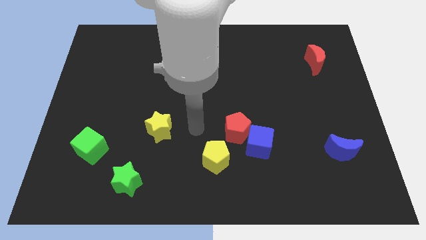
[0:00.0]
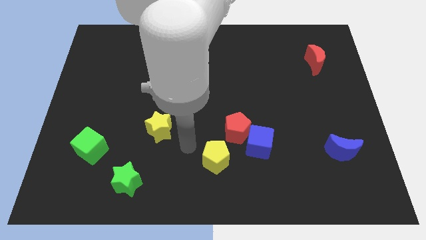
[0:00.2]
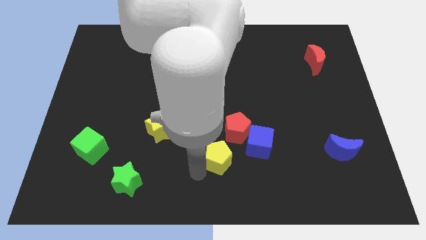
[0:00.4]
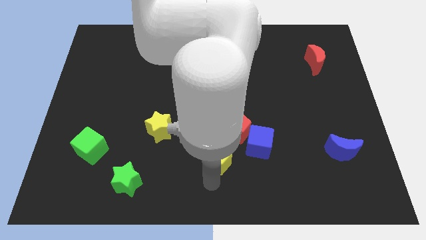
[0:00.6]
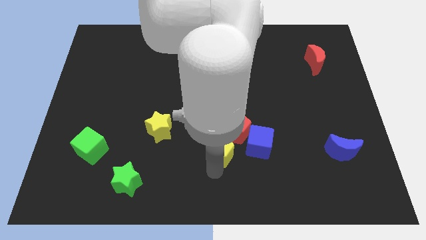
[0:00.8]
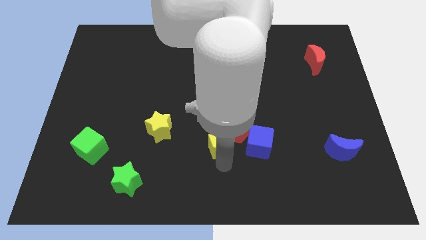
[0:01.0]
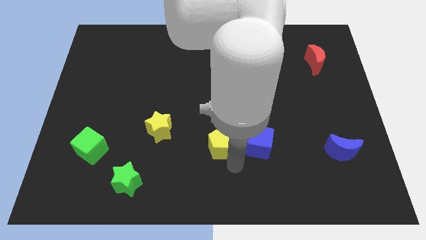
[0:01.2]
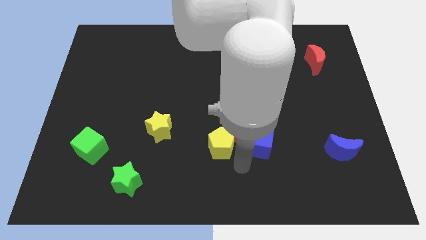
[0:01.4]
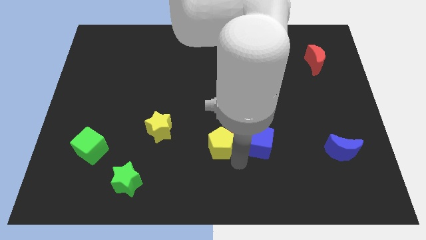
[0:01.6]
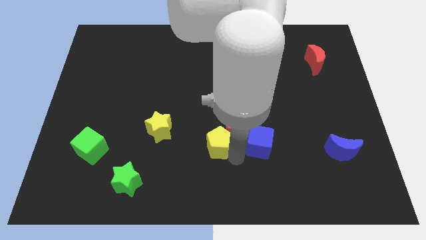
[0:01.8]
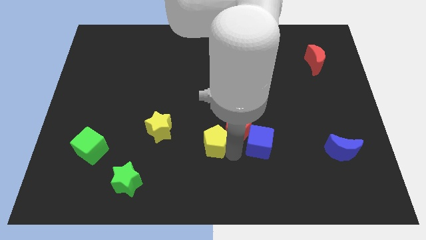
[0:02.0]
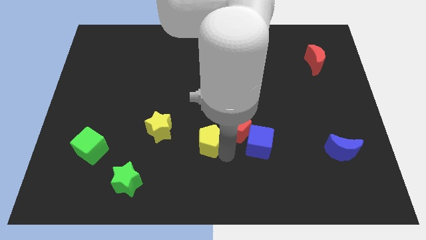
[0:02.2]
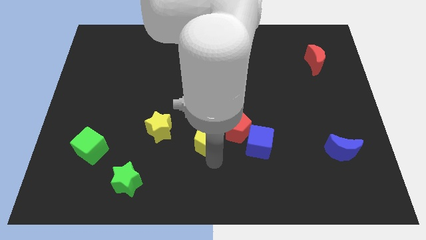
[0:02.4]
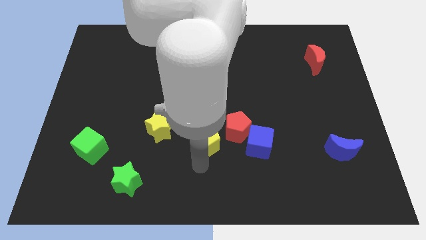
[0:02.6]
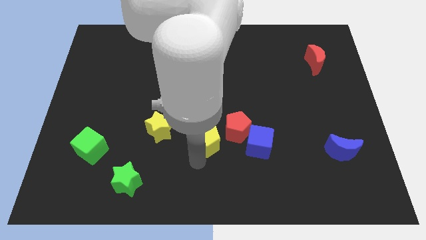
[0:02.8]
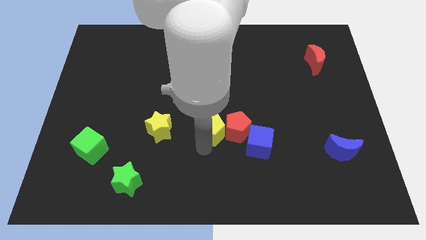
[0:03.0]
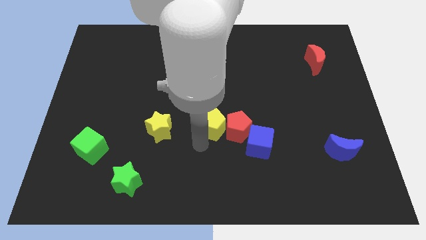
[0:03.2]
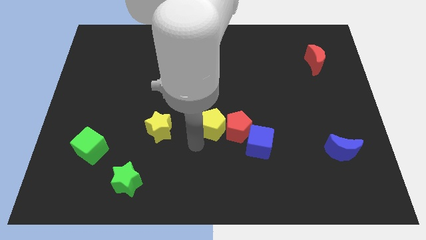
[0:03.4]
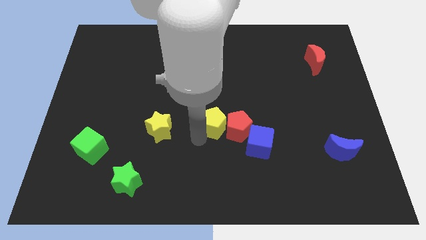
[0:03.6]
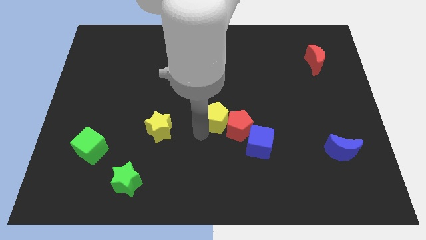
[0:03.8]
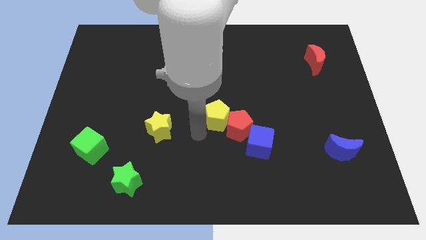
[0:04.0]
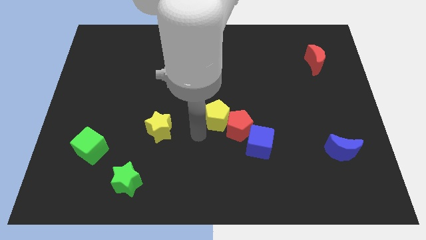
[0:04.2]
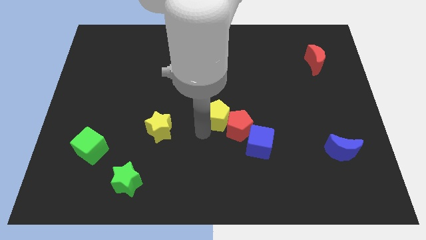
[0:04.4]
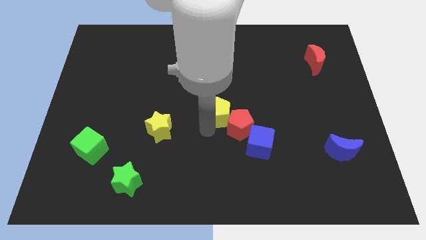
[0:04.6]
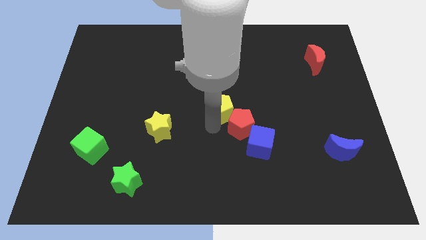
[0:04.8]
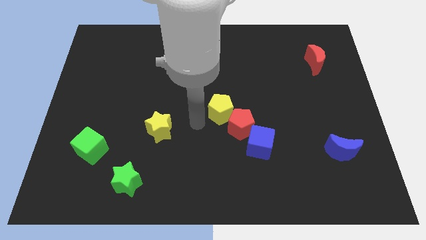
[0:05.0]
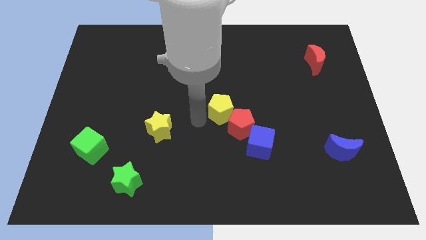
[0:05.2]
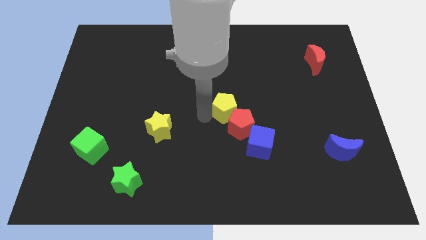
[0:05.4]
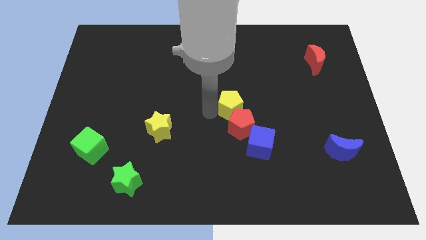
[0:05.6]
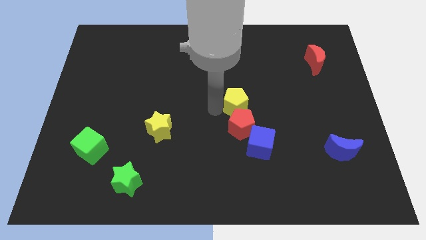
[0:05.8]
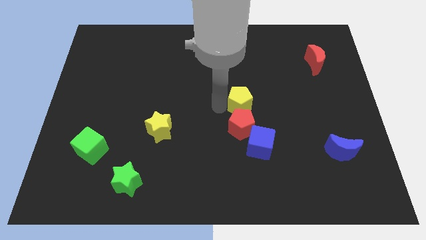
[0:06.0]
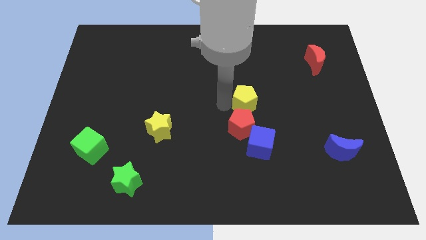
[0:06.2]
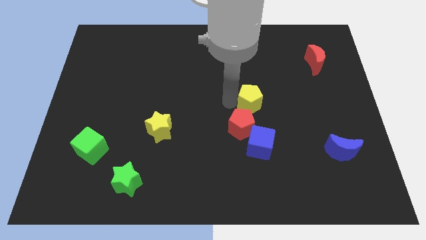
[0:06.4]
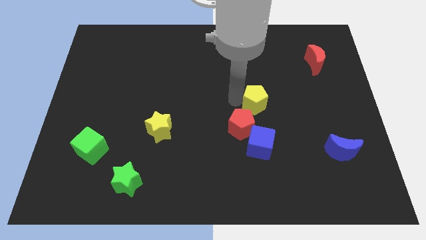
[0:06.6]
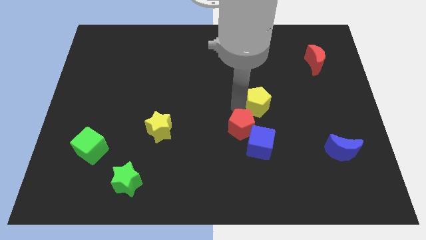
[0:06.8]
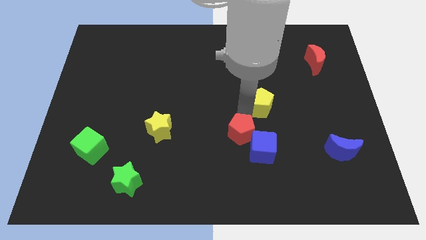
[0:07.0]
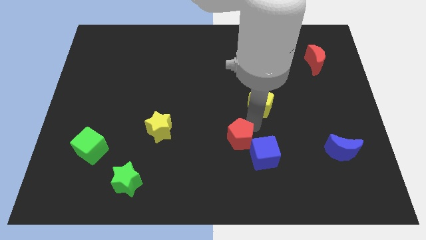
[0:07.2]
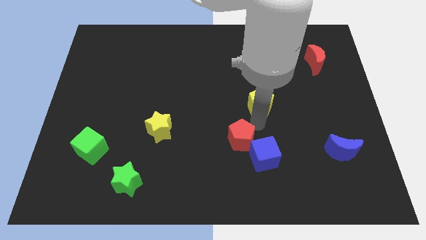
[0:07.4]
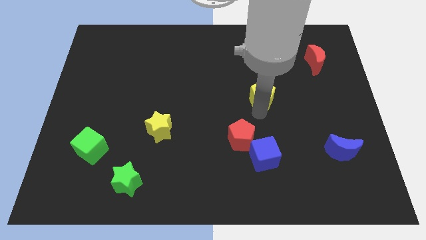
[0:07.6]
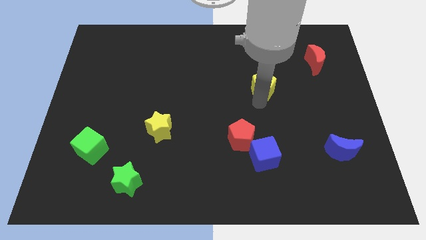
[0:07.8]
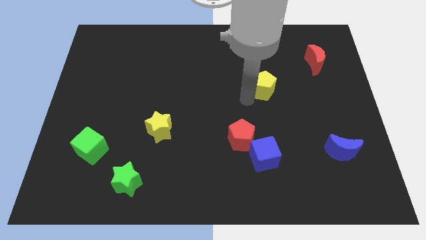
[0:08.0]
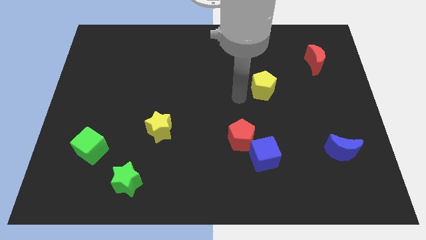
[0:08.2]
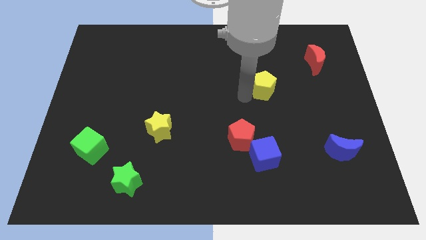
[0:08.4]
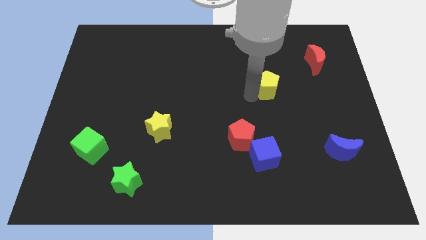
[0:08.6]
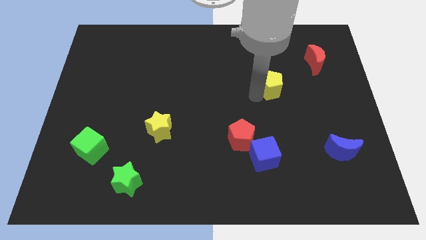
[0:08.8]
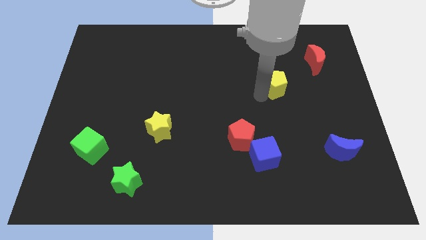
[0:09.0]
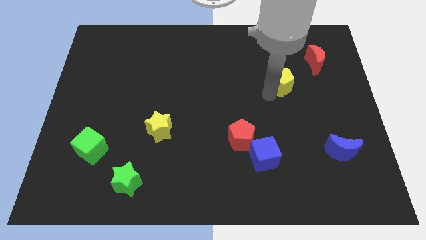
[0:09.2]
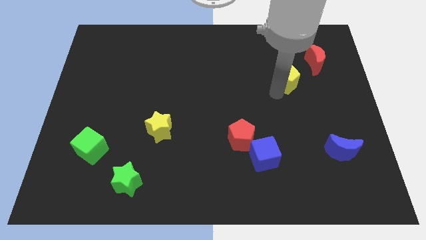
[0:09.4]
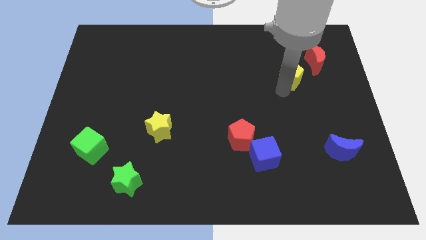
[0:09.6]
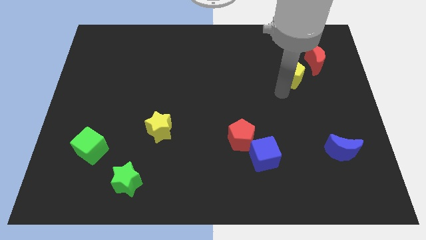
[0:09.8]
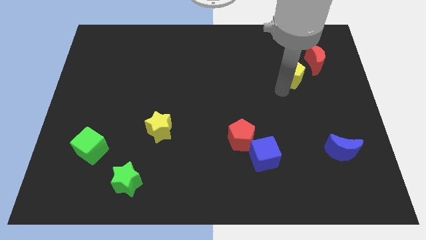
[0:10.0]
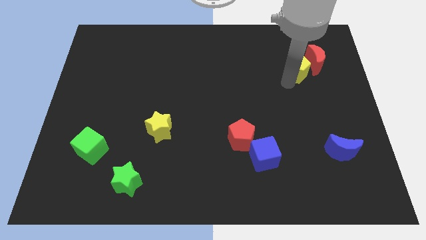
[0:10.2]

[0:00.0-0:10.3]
slide the yellow pentagon towards the red moon

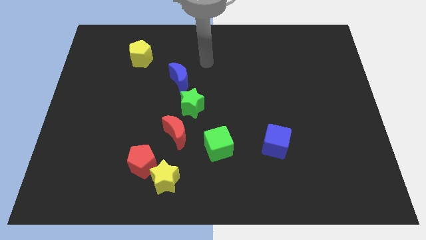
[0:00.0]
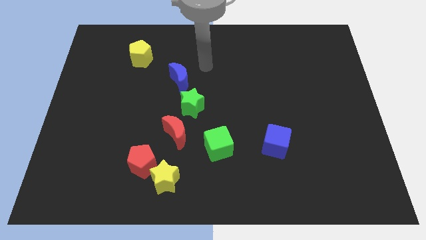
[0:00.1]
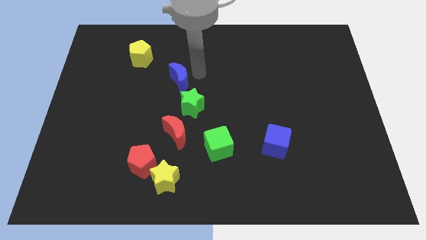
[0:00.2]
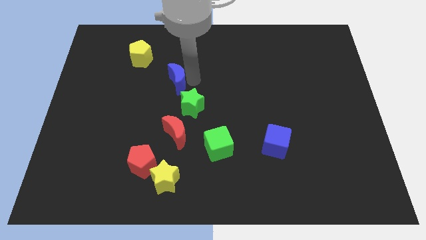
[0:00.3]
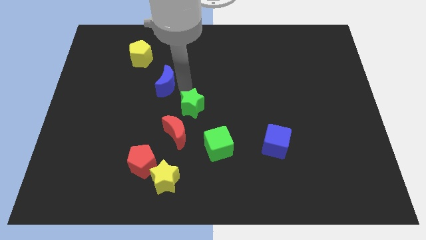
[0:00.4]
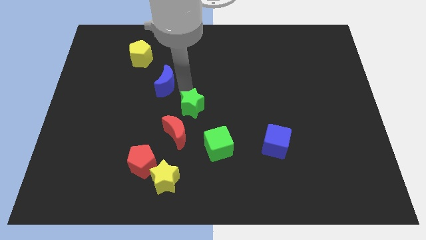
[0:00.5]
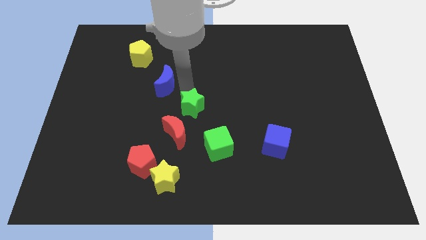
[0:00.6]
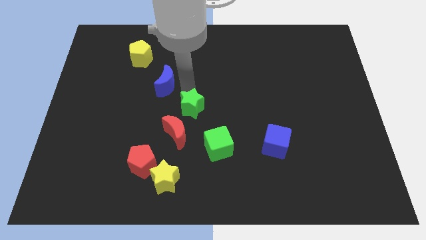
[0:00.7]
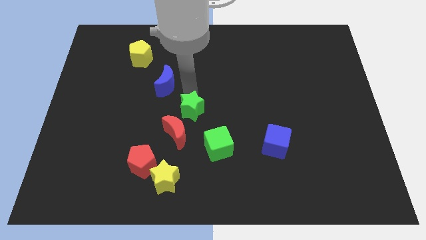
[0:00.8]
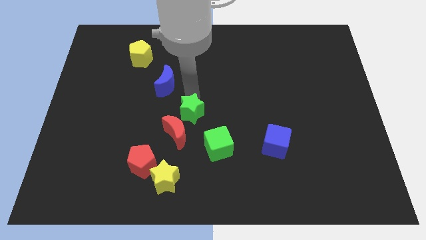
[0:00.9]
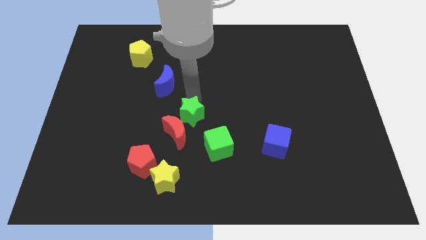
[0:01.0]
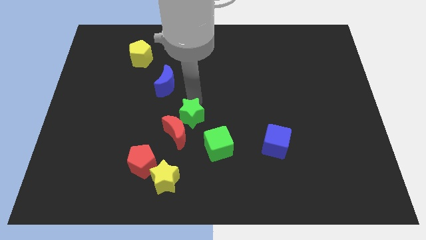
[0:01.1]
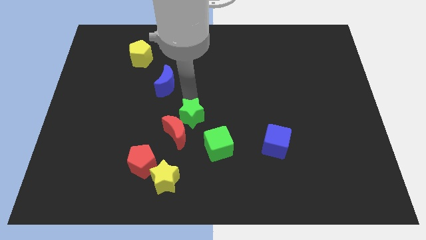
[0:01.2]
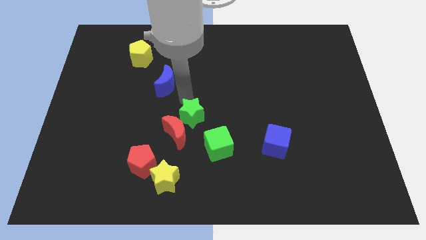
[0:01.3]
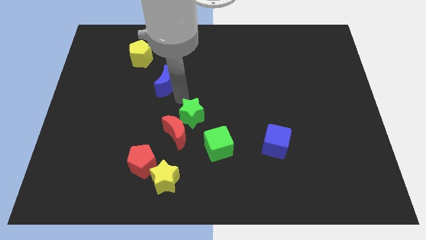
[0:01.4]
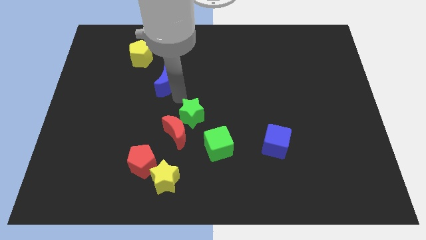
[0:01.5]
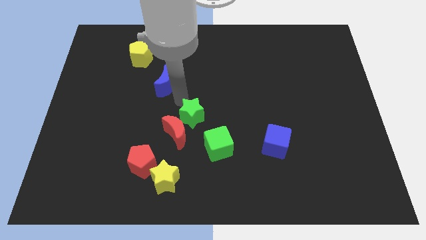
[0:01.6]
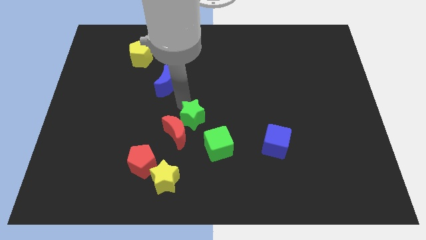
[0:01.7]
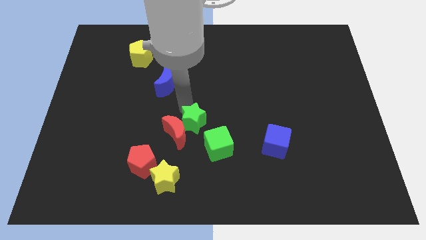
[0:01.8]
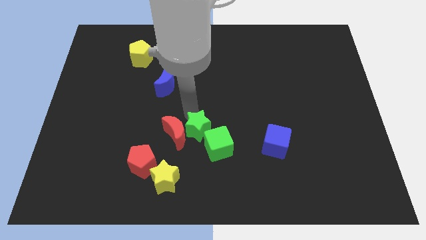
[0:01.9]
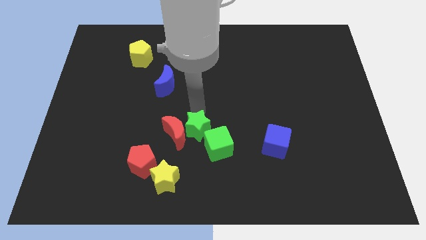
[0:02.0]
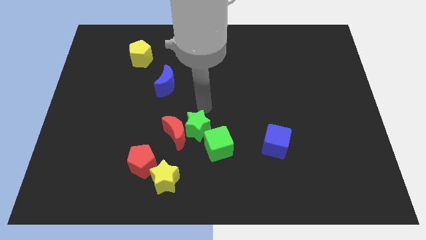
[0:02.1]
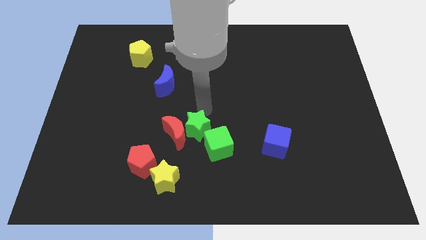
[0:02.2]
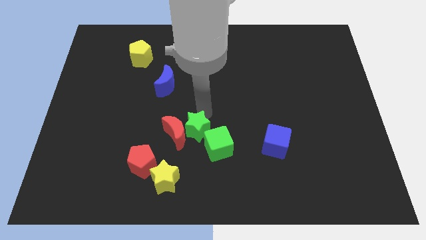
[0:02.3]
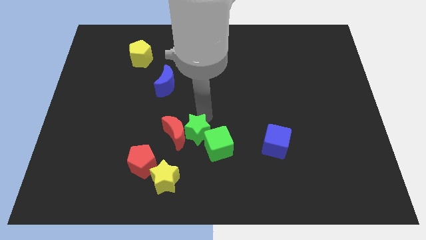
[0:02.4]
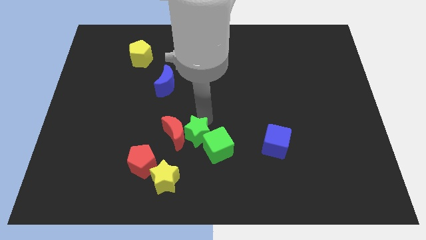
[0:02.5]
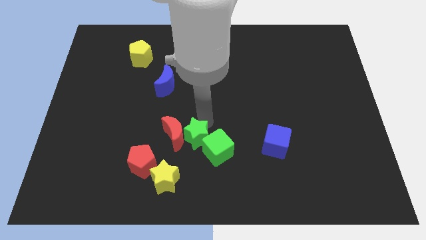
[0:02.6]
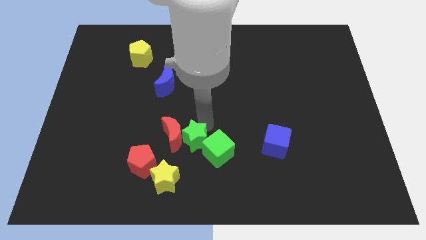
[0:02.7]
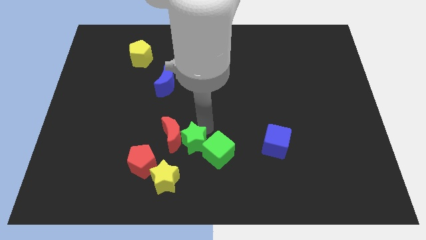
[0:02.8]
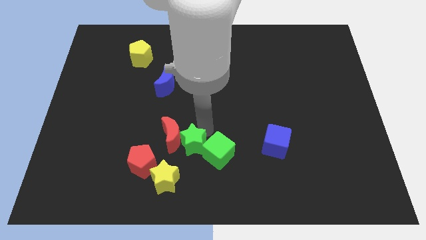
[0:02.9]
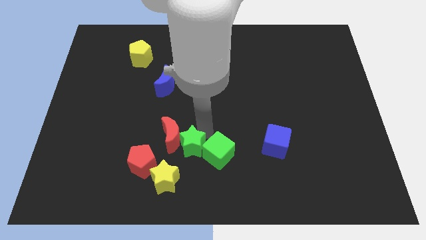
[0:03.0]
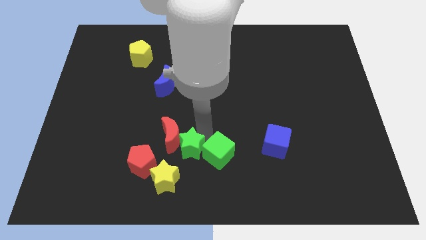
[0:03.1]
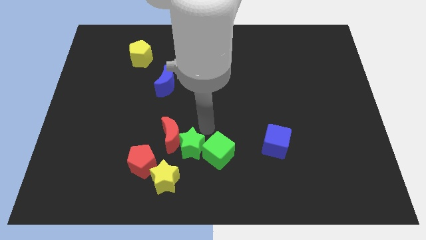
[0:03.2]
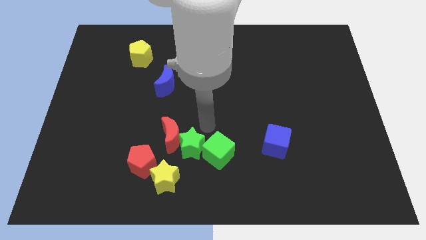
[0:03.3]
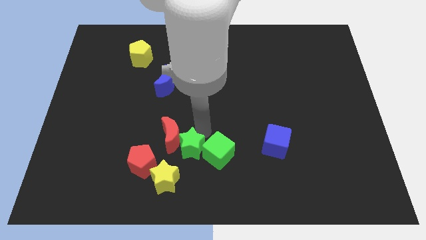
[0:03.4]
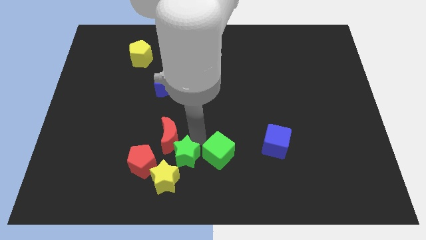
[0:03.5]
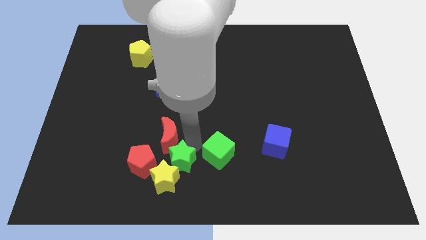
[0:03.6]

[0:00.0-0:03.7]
move the green star next to the yellow star
